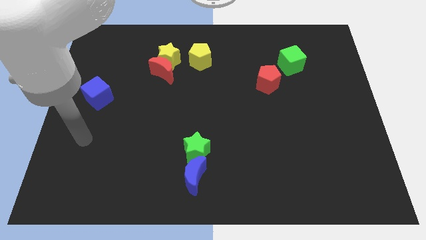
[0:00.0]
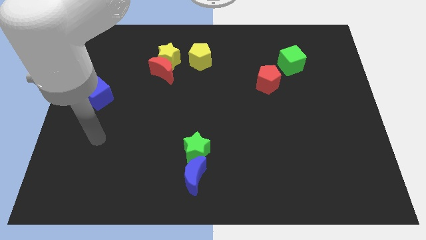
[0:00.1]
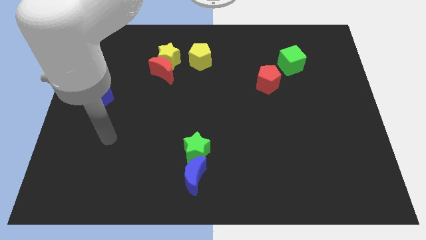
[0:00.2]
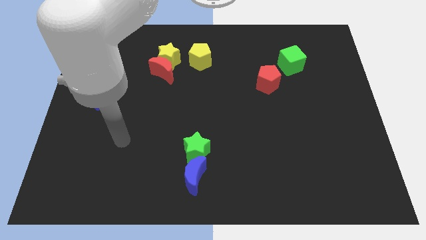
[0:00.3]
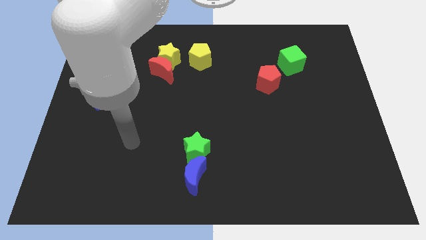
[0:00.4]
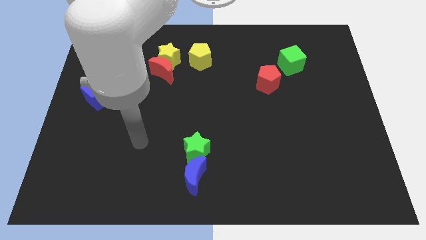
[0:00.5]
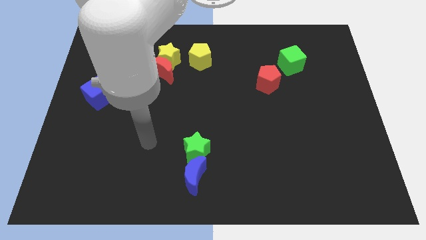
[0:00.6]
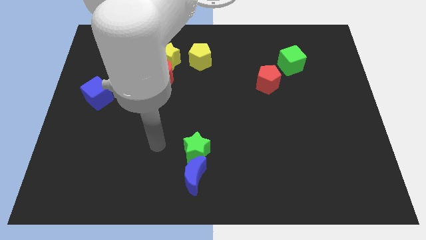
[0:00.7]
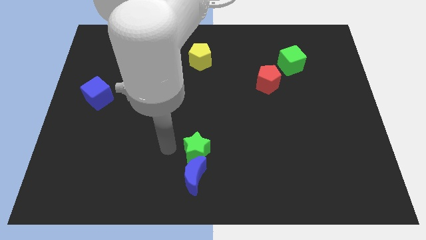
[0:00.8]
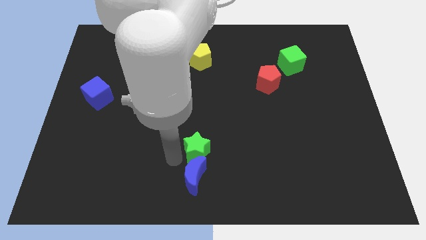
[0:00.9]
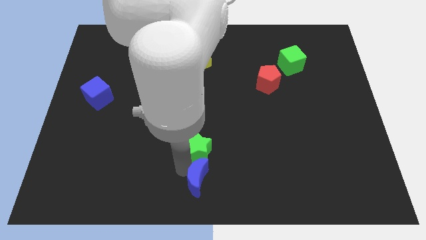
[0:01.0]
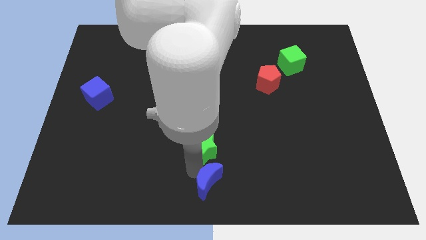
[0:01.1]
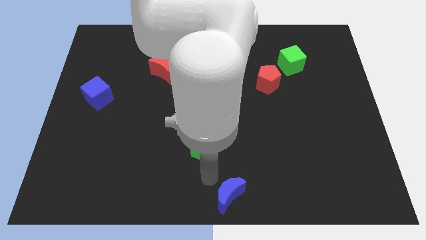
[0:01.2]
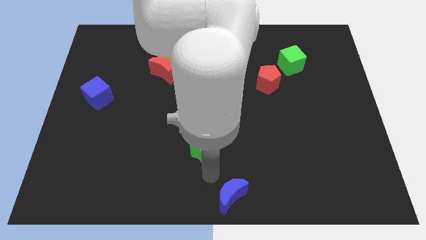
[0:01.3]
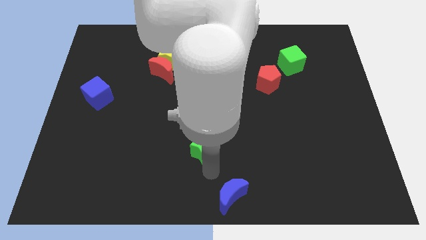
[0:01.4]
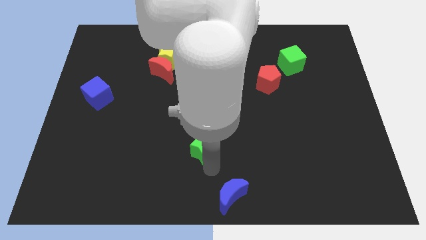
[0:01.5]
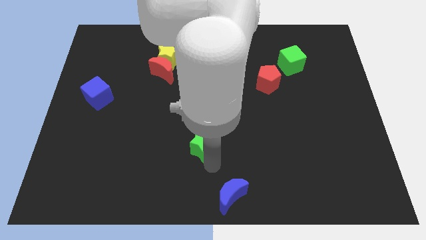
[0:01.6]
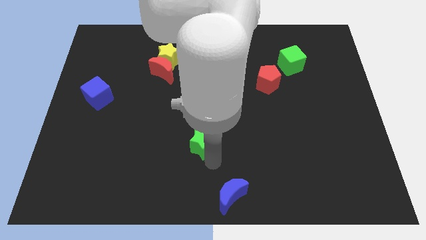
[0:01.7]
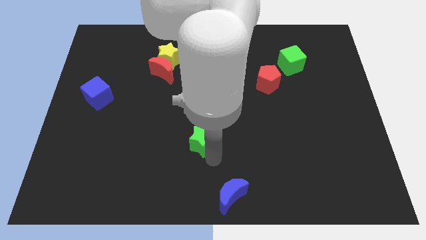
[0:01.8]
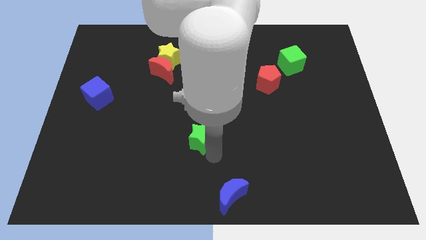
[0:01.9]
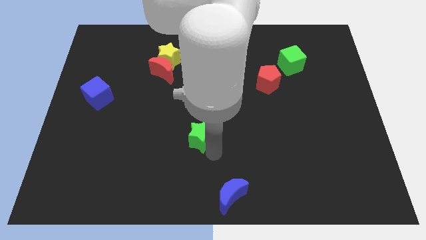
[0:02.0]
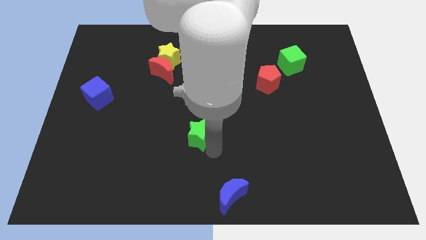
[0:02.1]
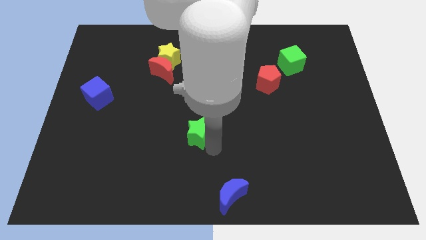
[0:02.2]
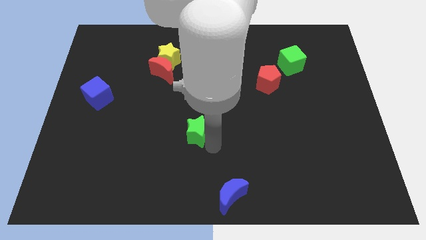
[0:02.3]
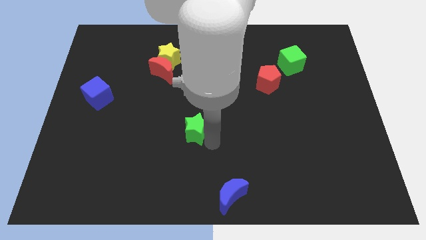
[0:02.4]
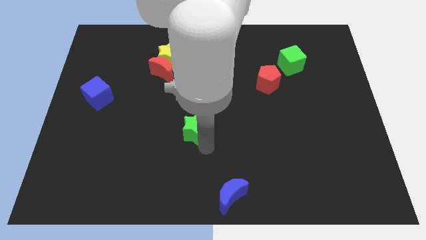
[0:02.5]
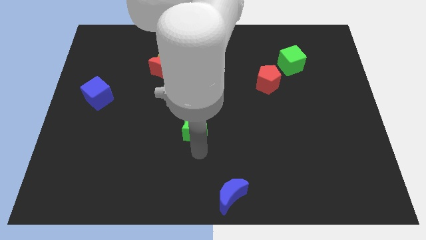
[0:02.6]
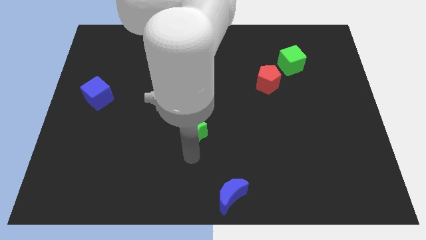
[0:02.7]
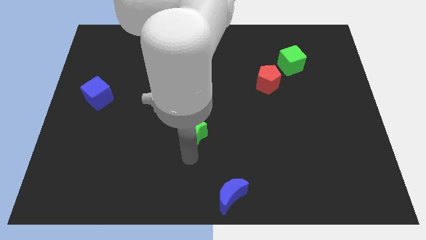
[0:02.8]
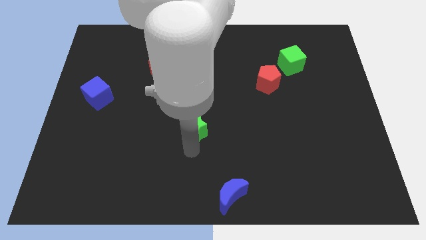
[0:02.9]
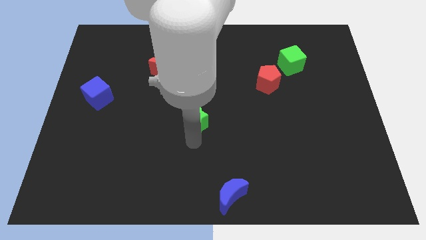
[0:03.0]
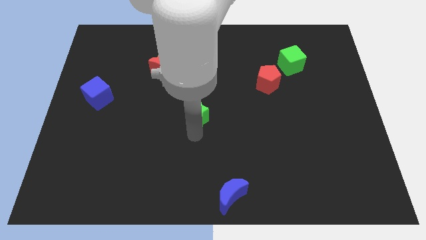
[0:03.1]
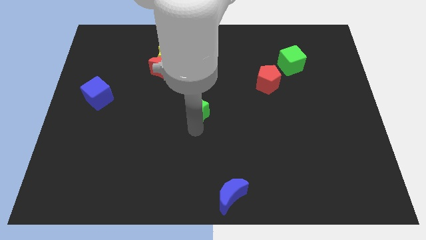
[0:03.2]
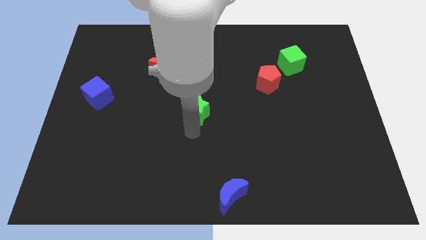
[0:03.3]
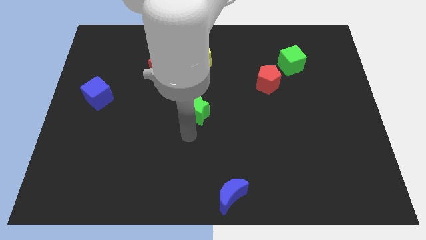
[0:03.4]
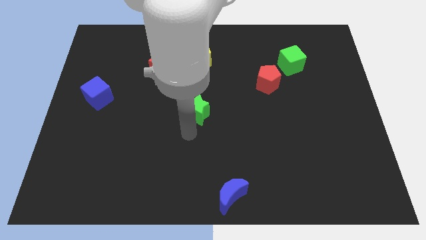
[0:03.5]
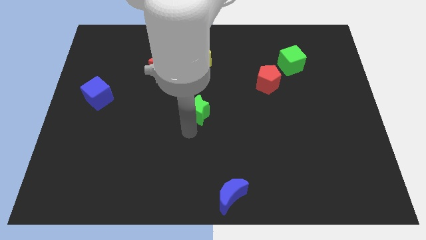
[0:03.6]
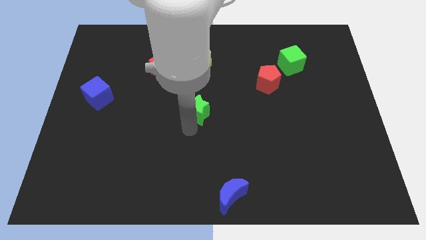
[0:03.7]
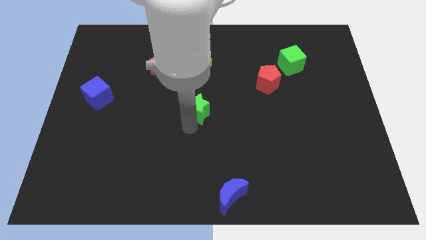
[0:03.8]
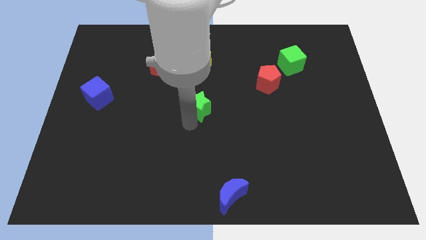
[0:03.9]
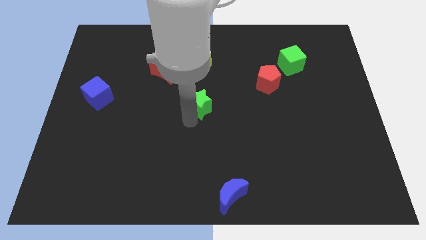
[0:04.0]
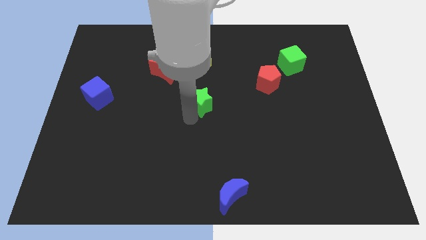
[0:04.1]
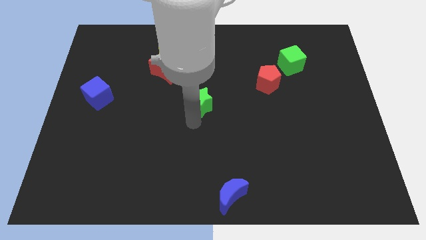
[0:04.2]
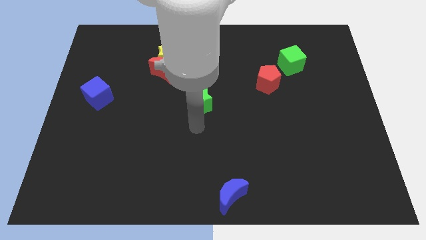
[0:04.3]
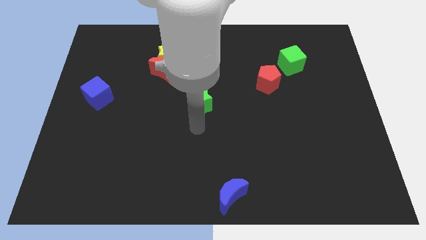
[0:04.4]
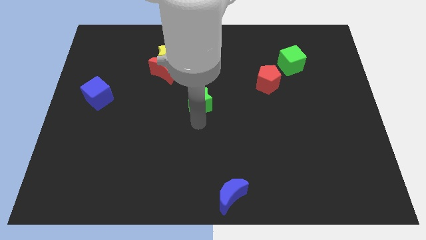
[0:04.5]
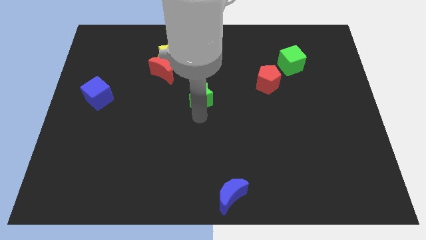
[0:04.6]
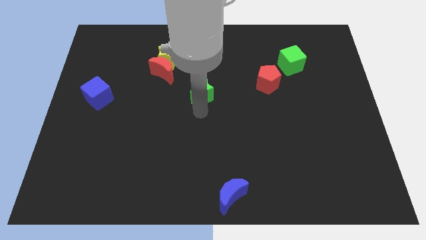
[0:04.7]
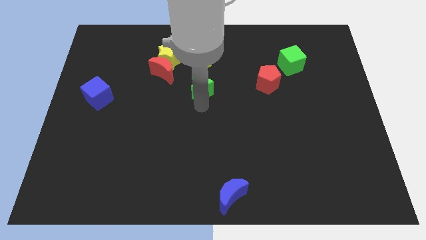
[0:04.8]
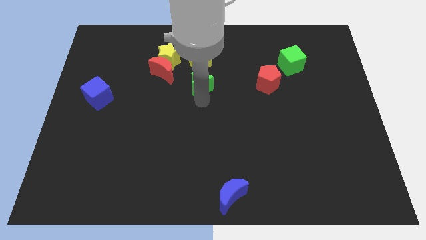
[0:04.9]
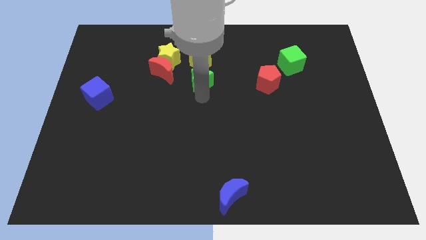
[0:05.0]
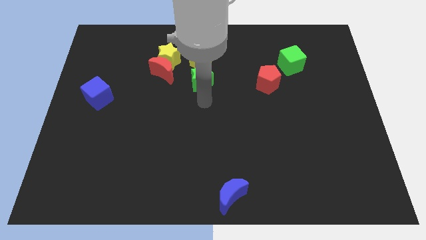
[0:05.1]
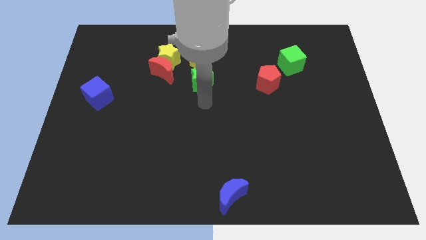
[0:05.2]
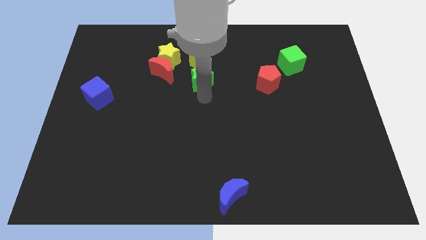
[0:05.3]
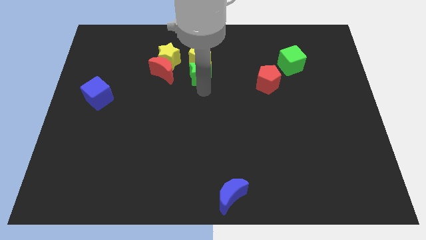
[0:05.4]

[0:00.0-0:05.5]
push the green star to the yellow pentagon

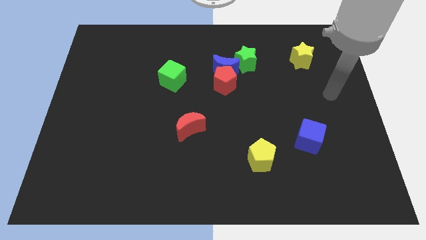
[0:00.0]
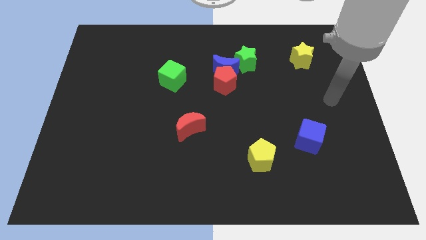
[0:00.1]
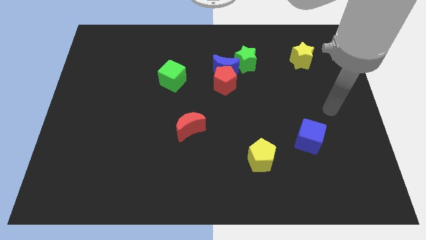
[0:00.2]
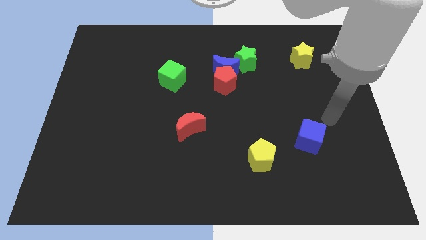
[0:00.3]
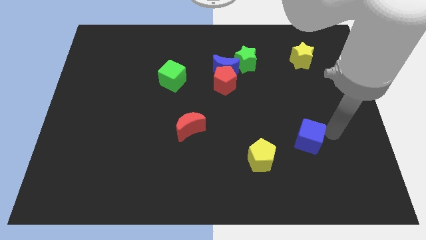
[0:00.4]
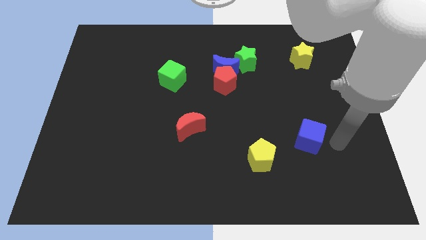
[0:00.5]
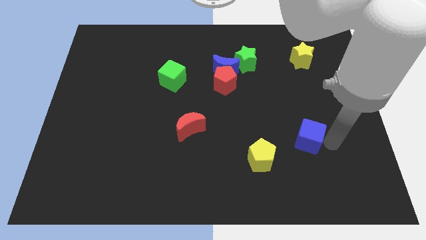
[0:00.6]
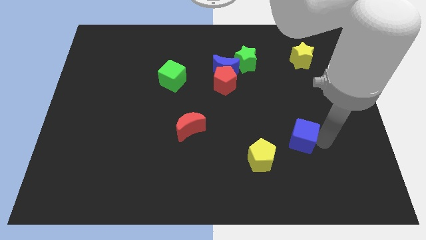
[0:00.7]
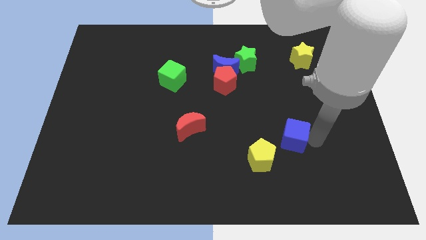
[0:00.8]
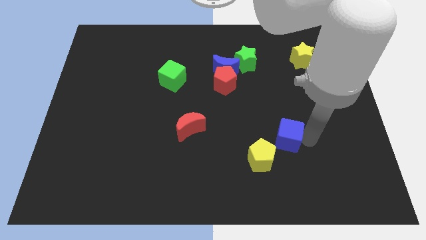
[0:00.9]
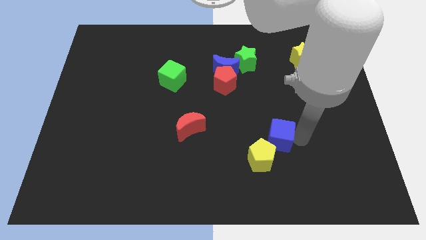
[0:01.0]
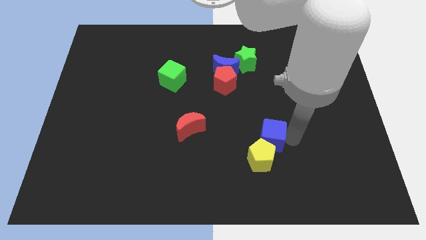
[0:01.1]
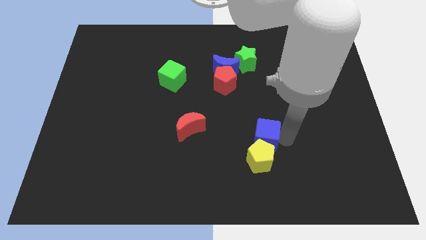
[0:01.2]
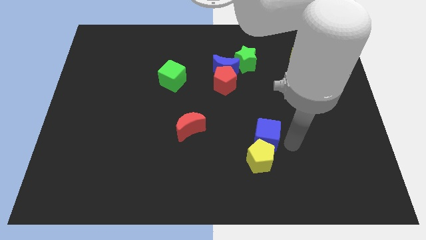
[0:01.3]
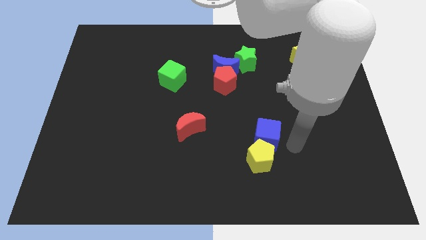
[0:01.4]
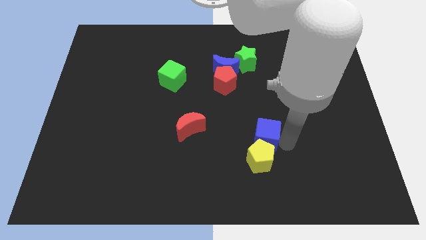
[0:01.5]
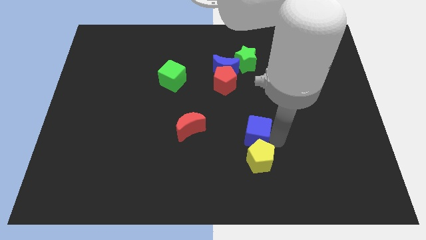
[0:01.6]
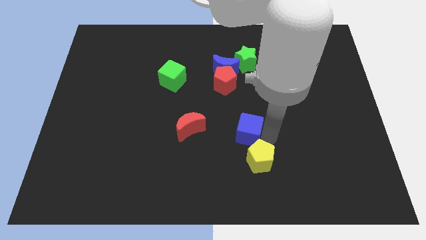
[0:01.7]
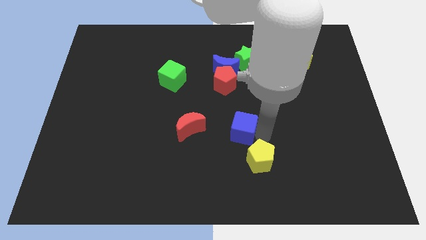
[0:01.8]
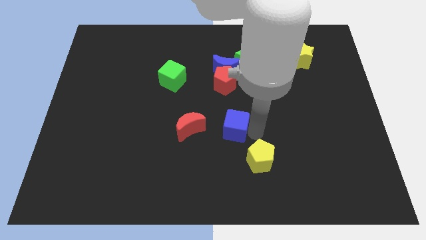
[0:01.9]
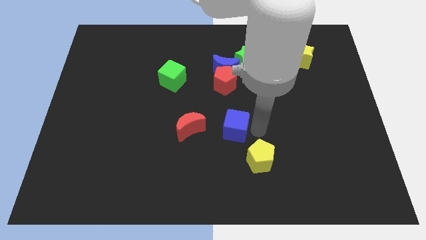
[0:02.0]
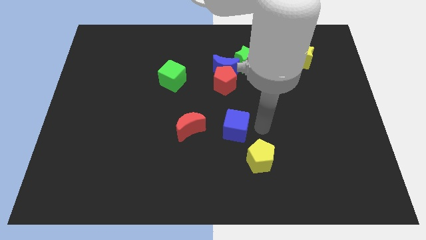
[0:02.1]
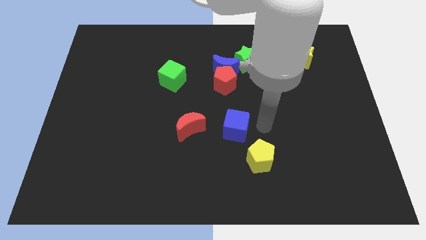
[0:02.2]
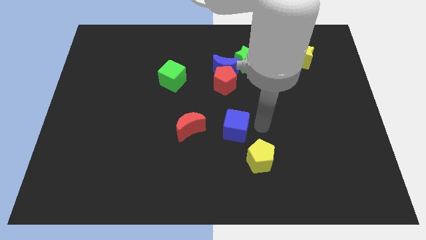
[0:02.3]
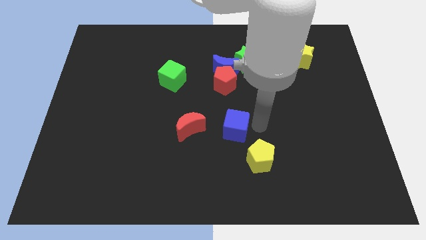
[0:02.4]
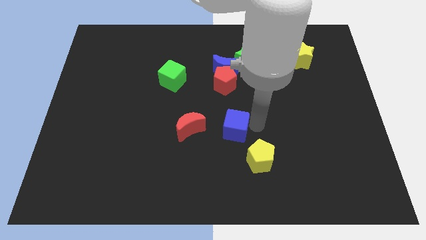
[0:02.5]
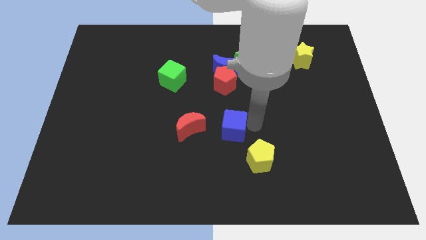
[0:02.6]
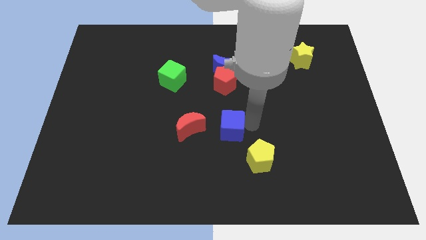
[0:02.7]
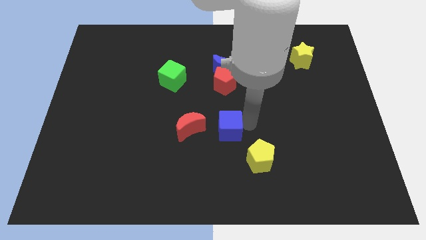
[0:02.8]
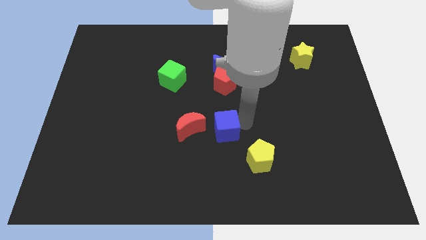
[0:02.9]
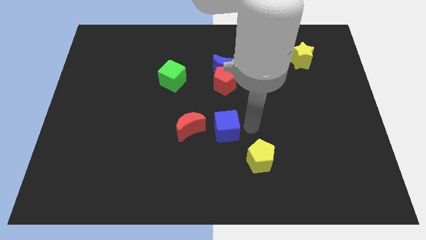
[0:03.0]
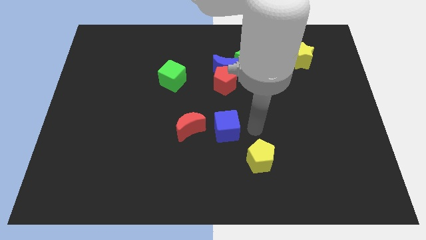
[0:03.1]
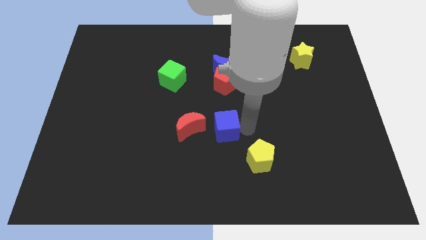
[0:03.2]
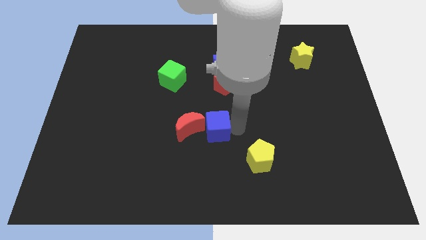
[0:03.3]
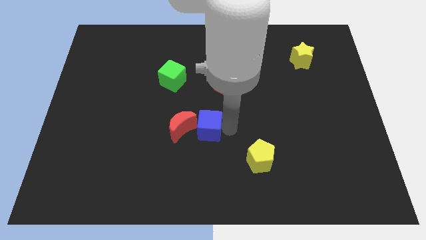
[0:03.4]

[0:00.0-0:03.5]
slide the blue cube towards the red moon
